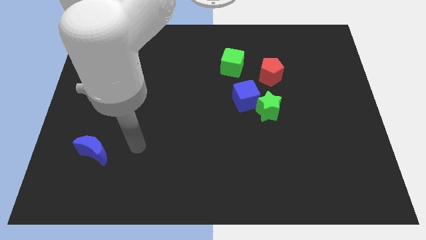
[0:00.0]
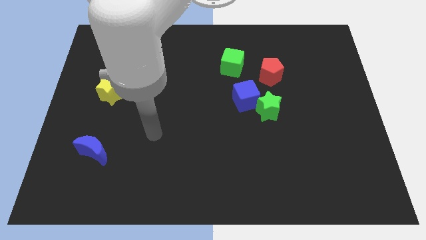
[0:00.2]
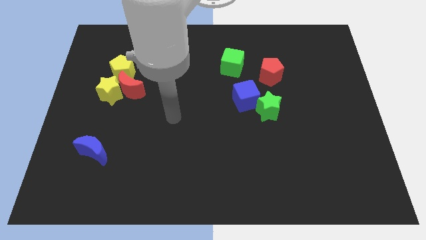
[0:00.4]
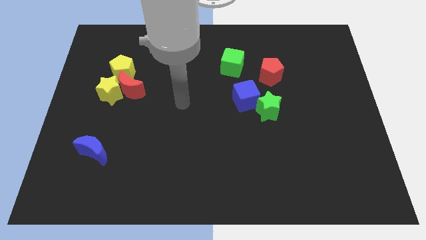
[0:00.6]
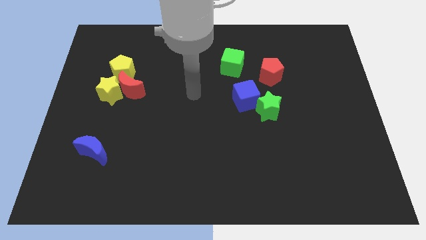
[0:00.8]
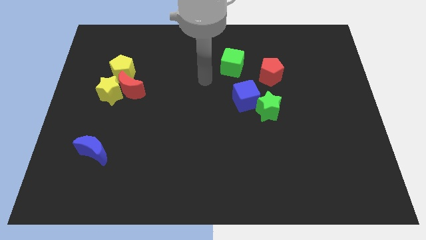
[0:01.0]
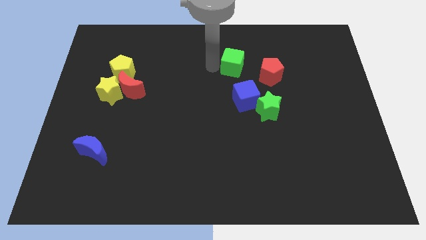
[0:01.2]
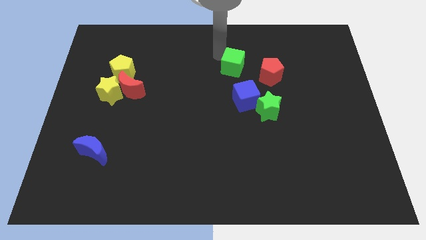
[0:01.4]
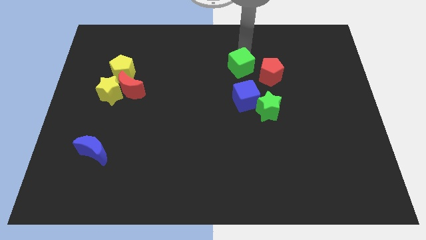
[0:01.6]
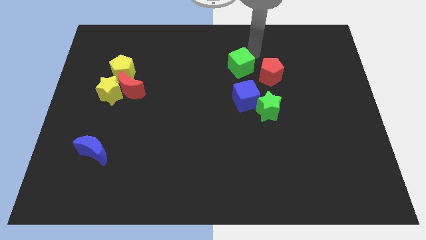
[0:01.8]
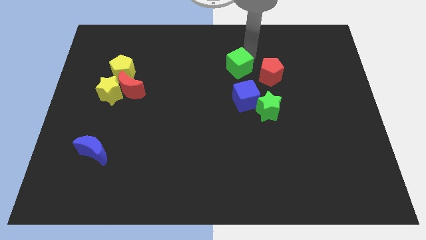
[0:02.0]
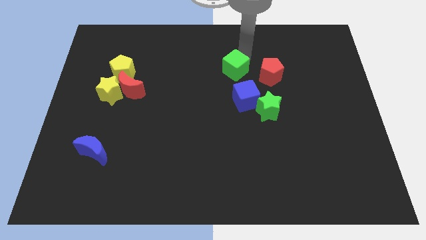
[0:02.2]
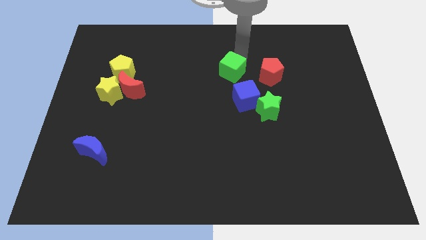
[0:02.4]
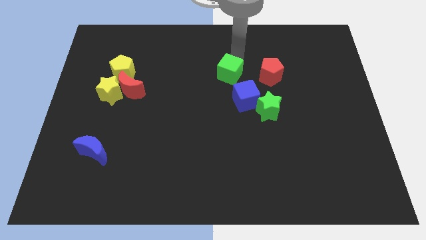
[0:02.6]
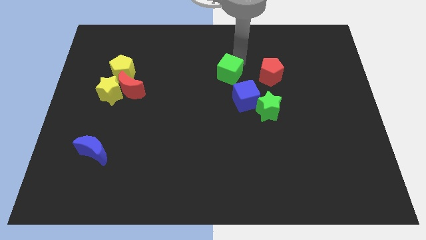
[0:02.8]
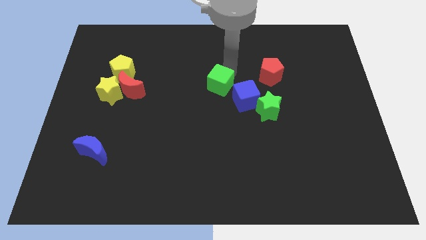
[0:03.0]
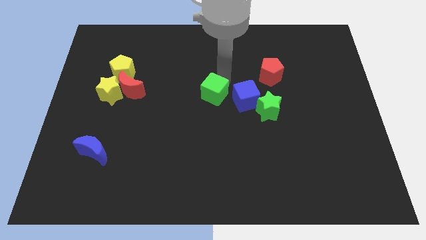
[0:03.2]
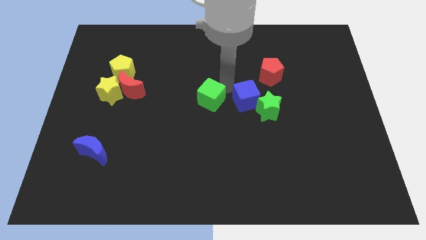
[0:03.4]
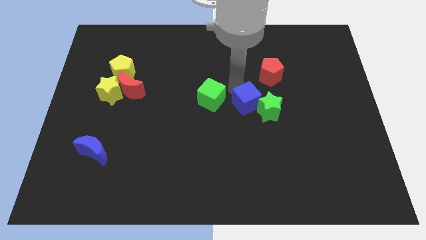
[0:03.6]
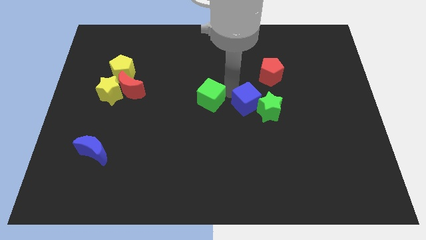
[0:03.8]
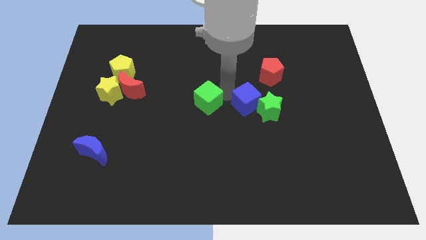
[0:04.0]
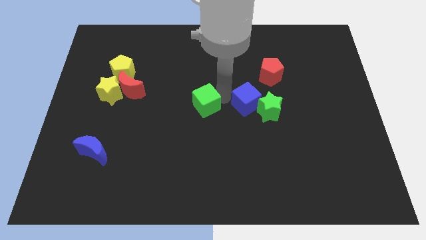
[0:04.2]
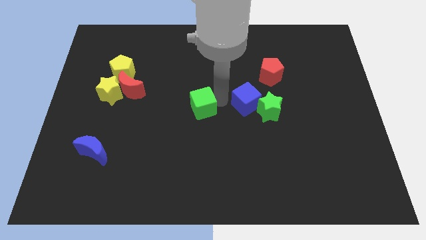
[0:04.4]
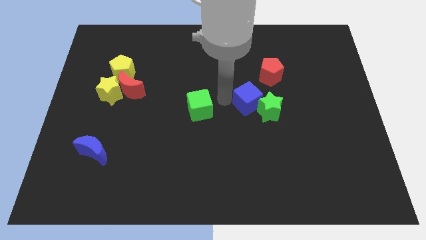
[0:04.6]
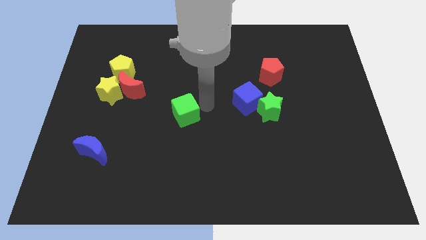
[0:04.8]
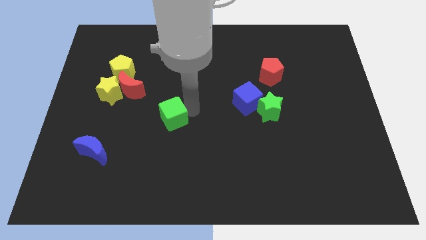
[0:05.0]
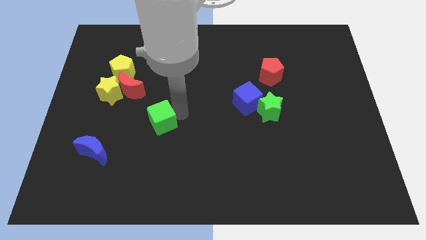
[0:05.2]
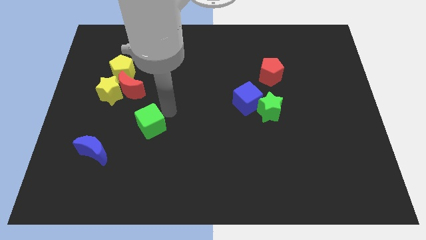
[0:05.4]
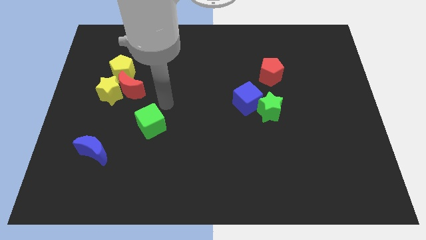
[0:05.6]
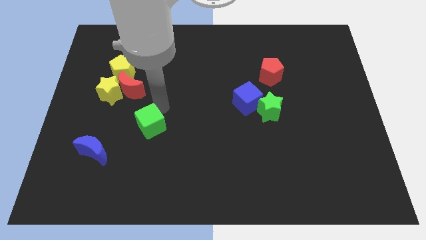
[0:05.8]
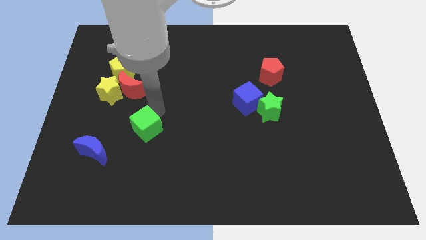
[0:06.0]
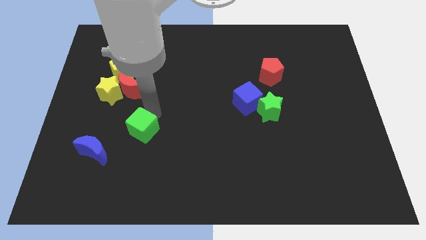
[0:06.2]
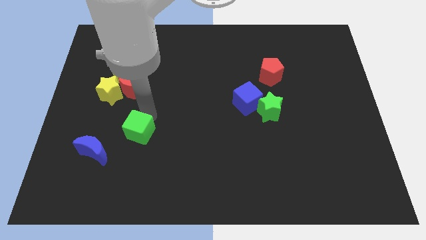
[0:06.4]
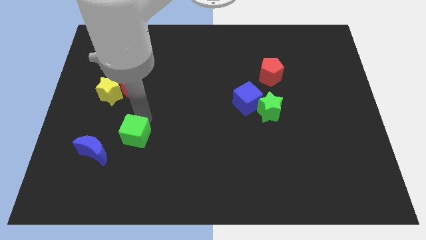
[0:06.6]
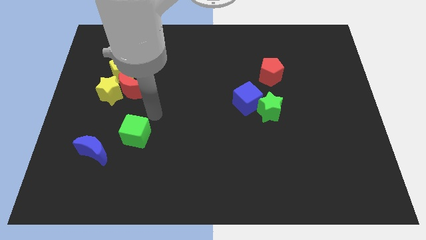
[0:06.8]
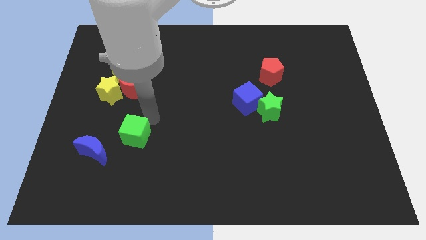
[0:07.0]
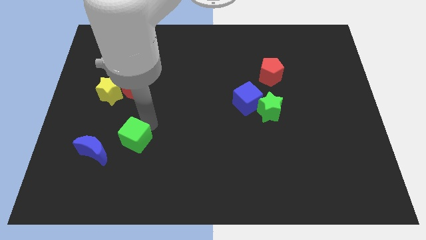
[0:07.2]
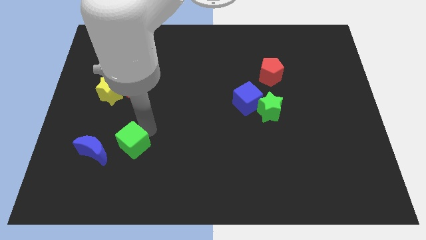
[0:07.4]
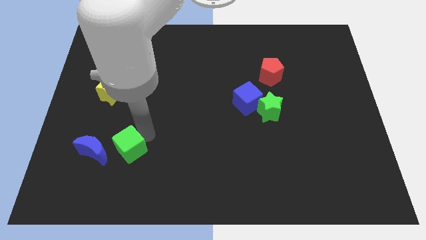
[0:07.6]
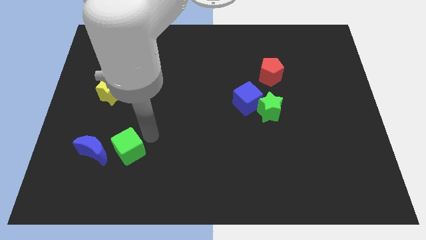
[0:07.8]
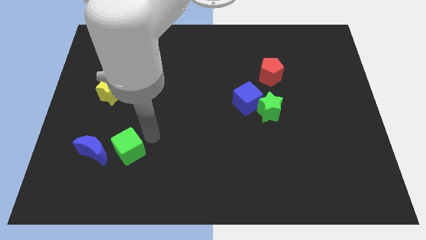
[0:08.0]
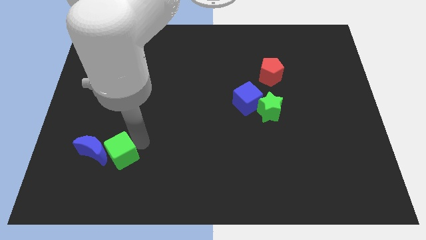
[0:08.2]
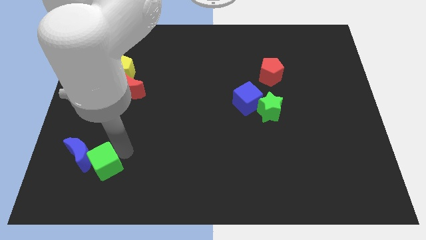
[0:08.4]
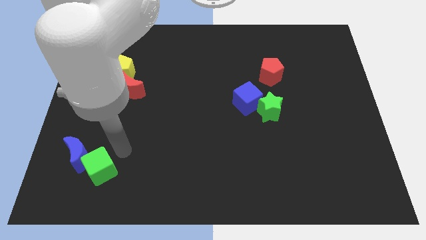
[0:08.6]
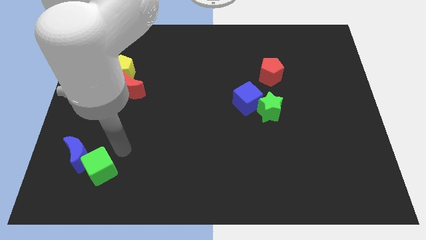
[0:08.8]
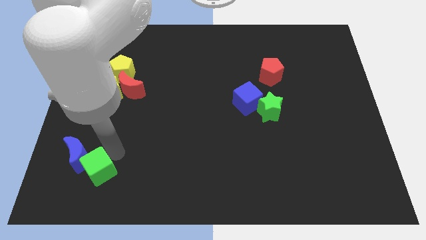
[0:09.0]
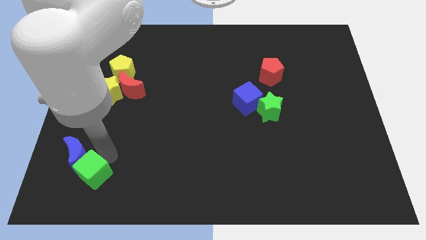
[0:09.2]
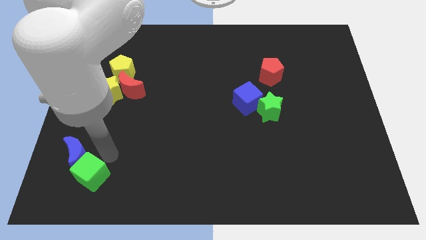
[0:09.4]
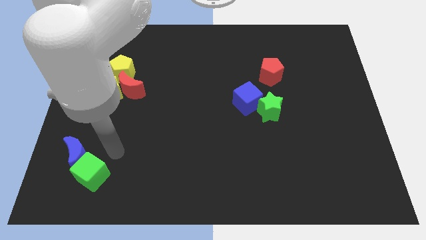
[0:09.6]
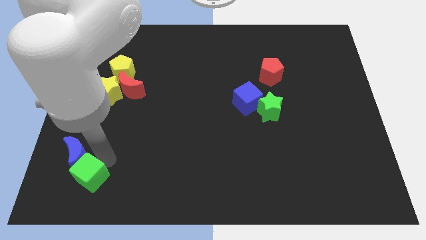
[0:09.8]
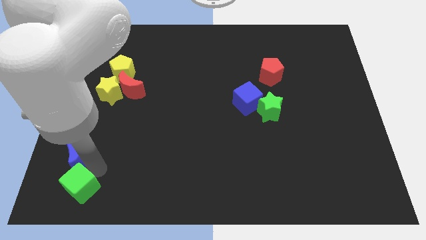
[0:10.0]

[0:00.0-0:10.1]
slide the green cube to the lower left corner

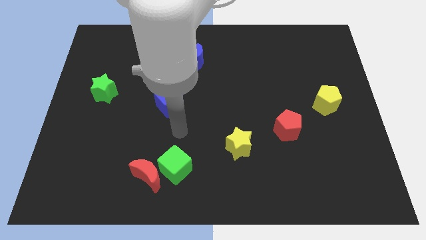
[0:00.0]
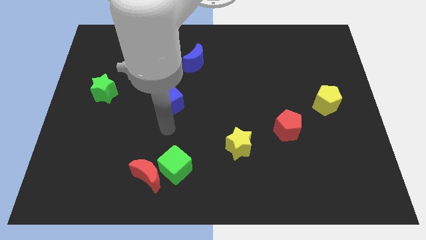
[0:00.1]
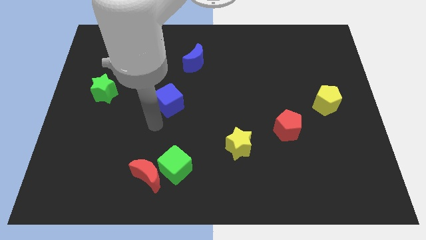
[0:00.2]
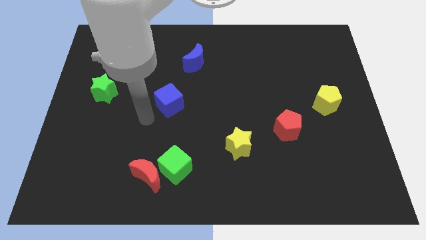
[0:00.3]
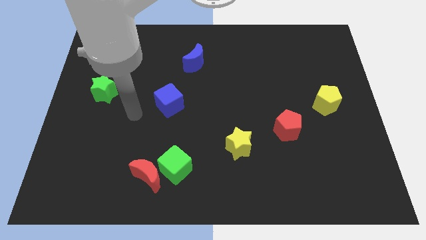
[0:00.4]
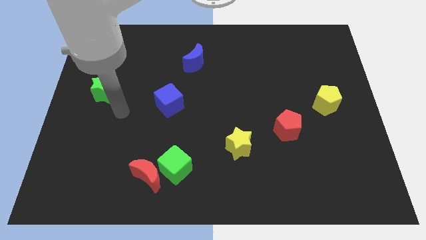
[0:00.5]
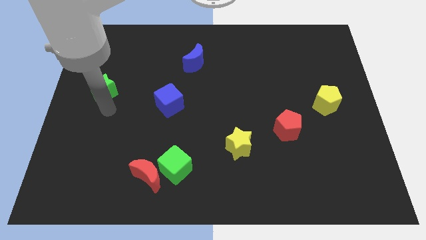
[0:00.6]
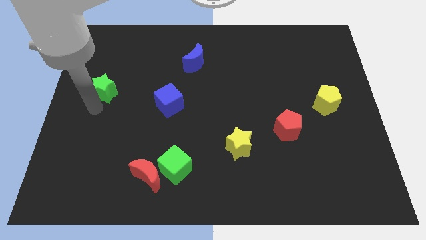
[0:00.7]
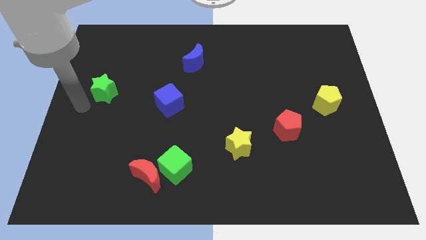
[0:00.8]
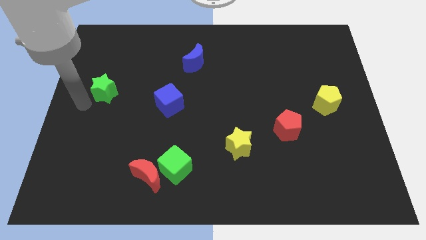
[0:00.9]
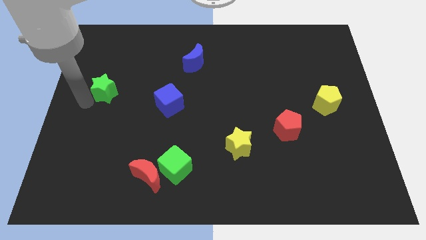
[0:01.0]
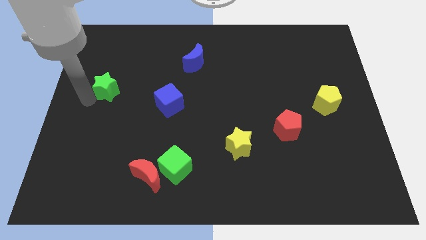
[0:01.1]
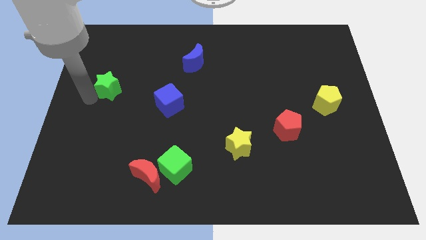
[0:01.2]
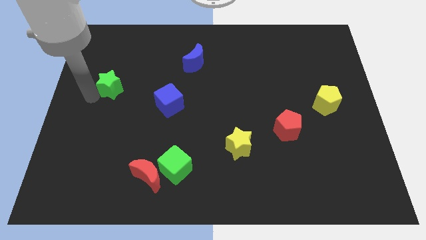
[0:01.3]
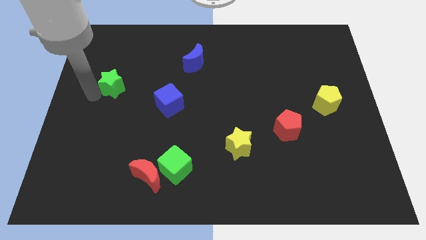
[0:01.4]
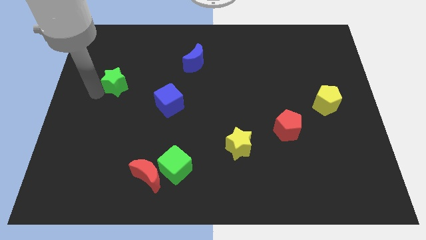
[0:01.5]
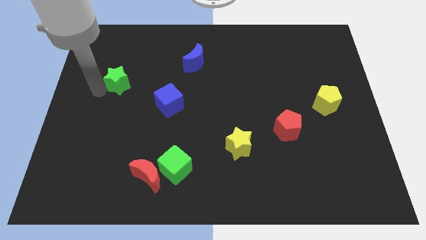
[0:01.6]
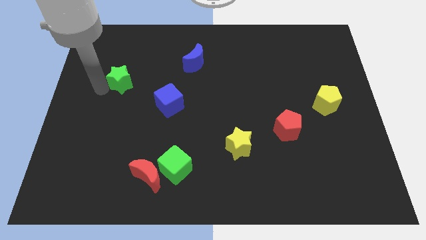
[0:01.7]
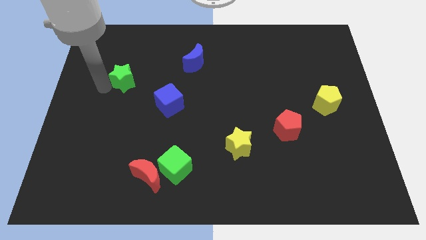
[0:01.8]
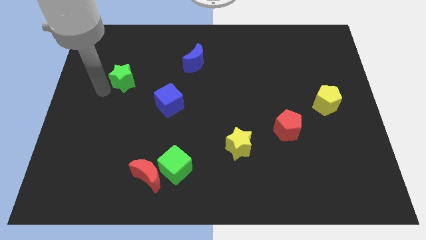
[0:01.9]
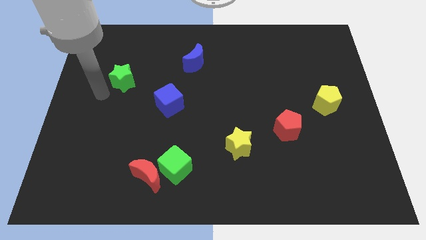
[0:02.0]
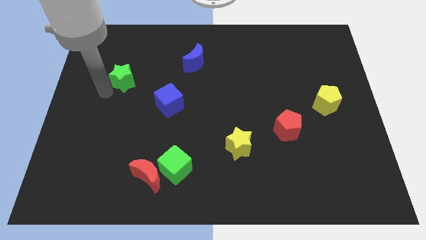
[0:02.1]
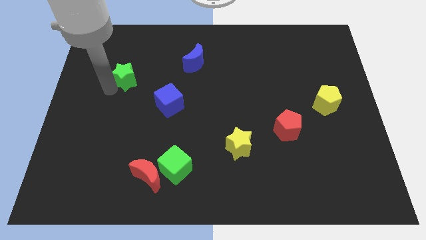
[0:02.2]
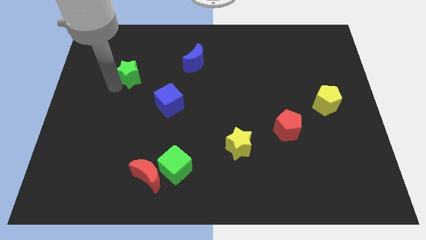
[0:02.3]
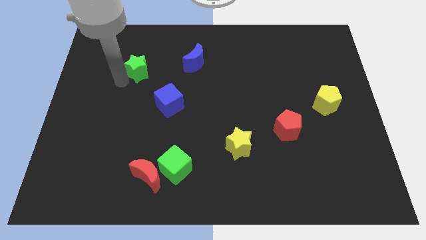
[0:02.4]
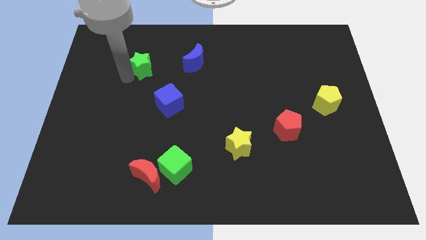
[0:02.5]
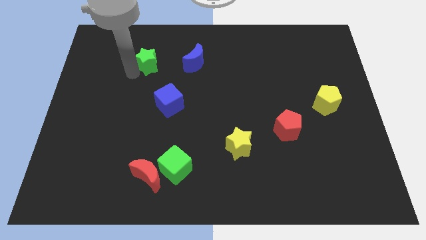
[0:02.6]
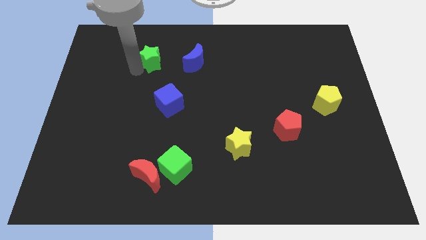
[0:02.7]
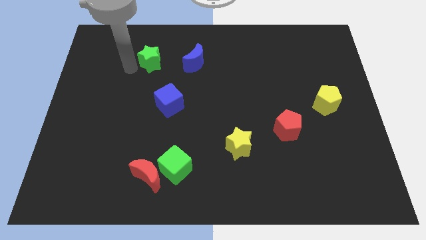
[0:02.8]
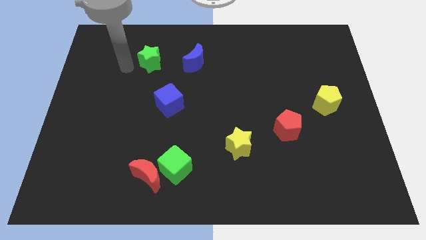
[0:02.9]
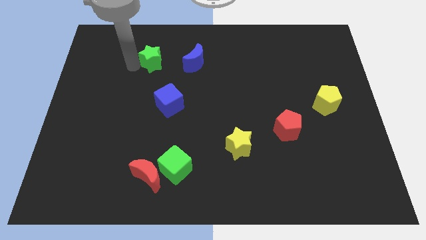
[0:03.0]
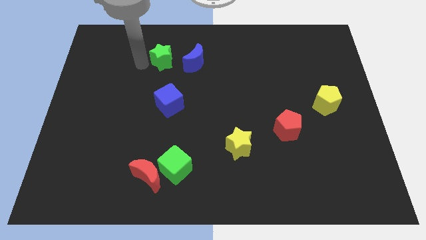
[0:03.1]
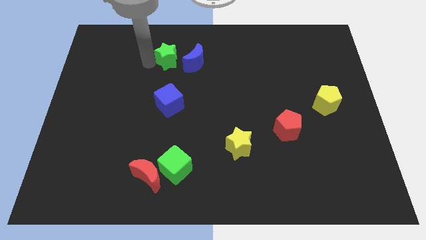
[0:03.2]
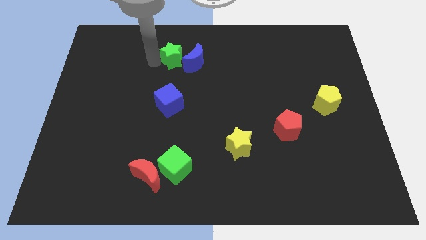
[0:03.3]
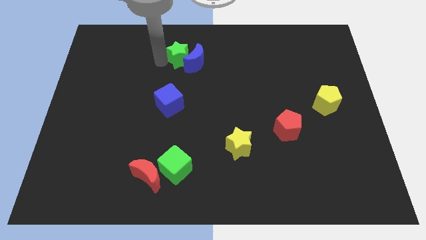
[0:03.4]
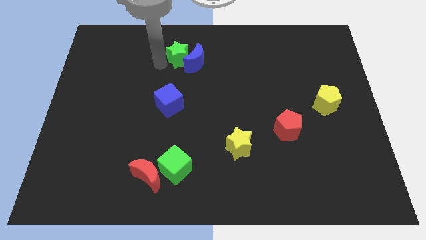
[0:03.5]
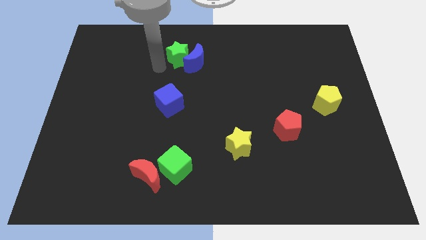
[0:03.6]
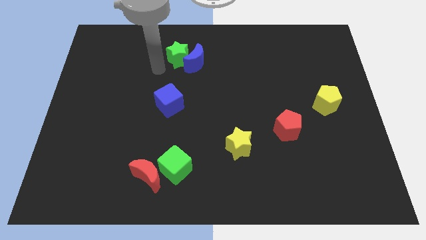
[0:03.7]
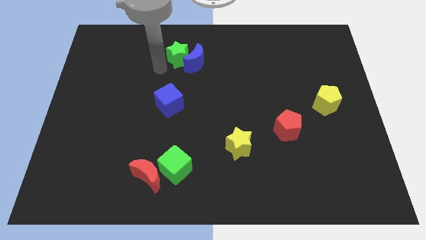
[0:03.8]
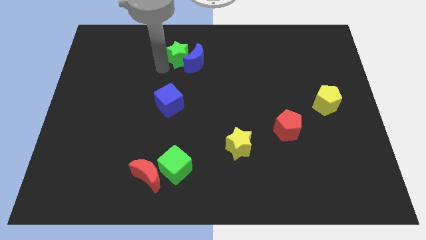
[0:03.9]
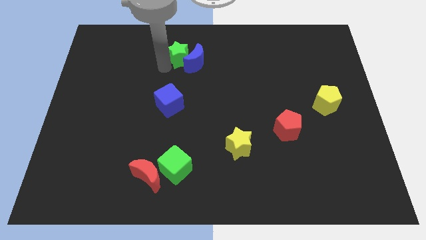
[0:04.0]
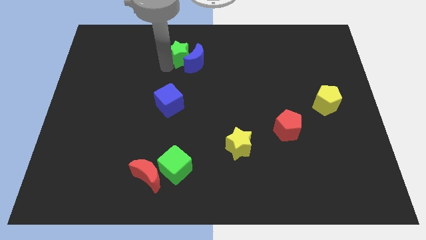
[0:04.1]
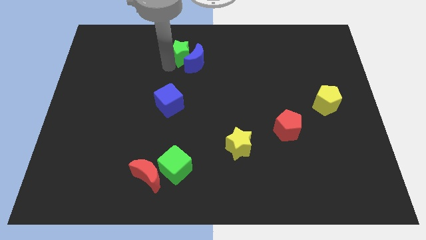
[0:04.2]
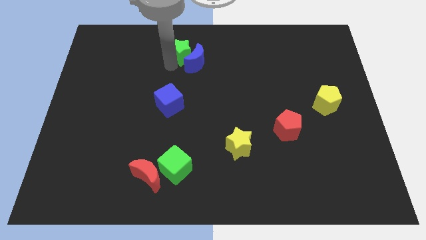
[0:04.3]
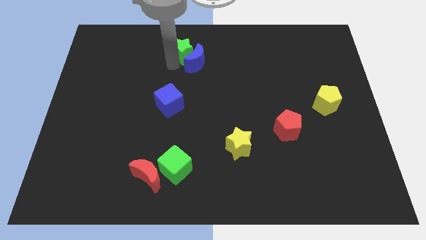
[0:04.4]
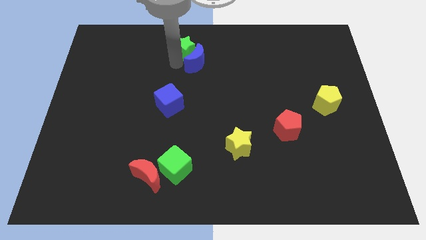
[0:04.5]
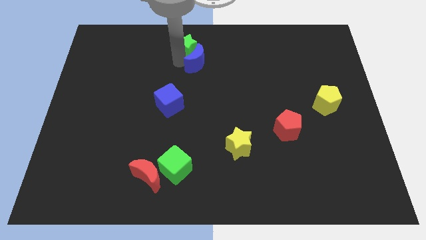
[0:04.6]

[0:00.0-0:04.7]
slide the green star to the towards your base
